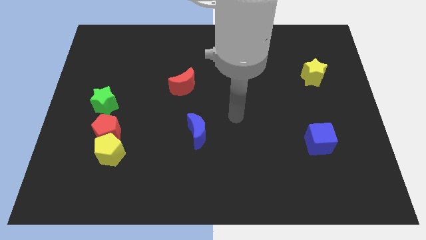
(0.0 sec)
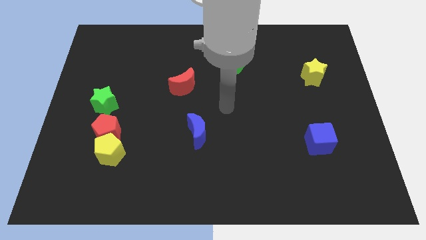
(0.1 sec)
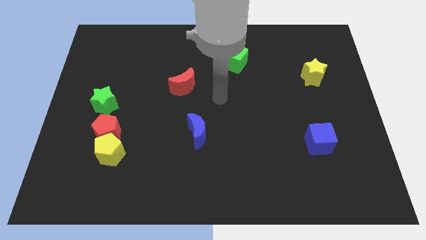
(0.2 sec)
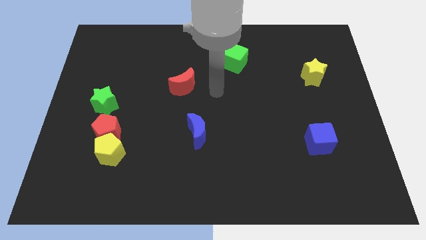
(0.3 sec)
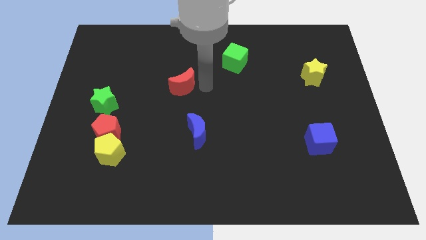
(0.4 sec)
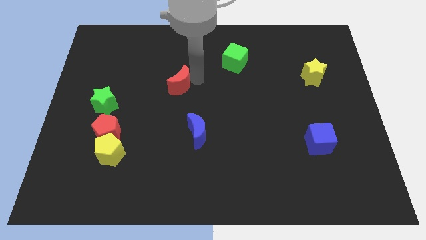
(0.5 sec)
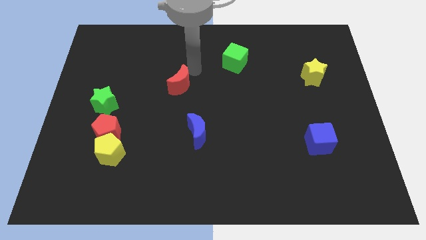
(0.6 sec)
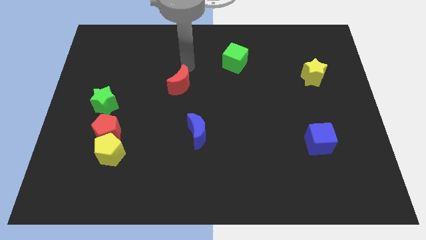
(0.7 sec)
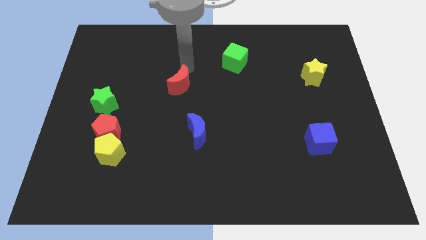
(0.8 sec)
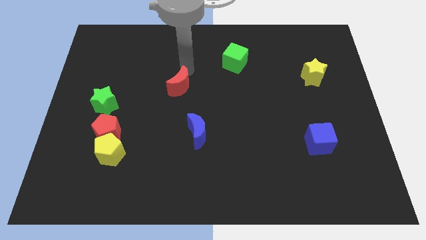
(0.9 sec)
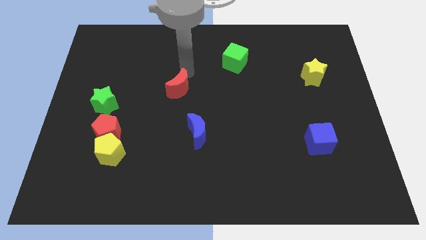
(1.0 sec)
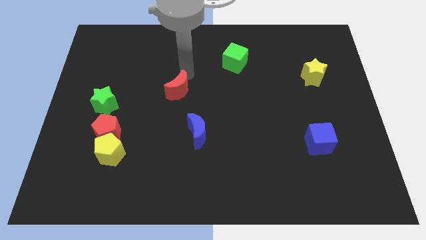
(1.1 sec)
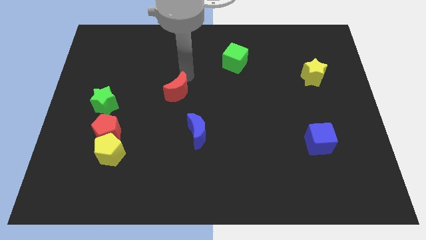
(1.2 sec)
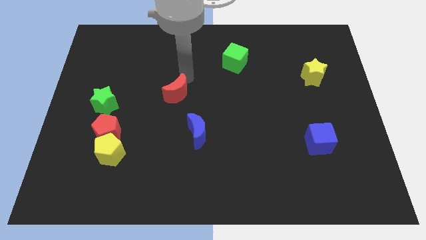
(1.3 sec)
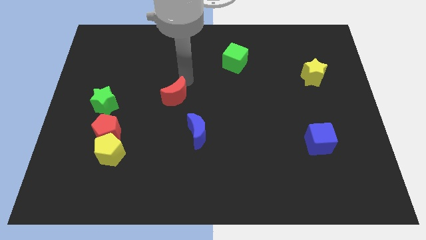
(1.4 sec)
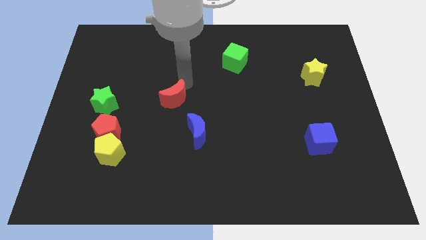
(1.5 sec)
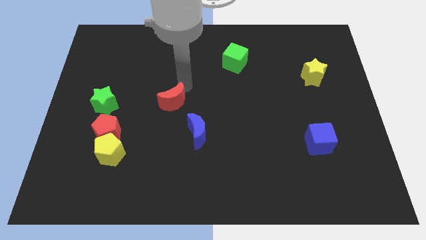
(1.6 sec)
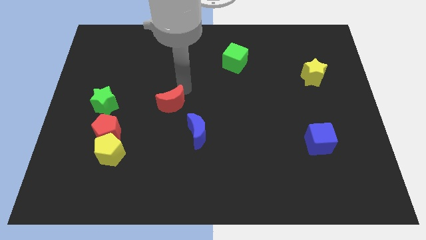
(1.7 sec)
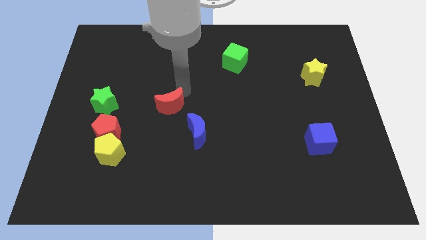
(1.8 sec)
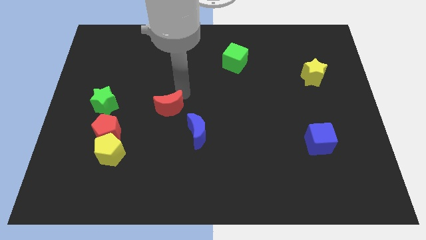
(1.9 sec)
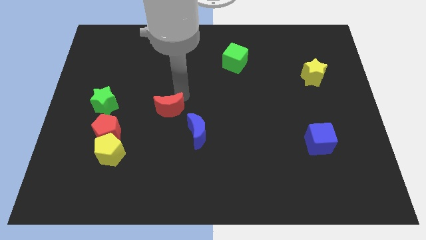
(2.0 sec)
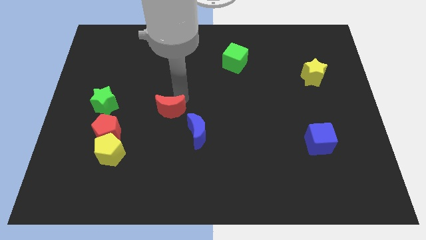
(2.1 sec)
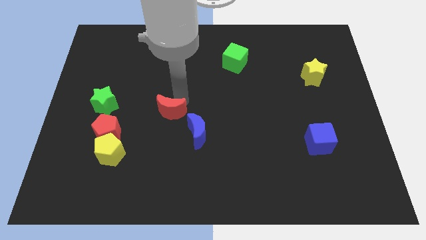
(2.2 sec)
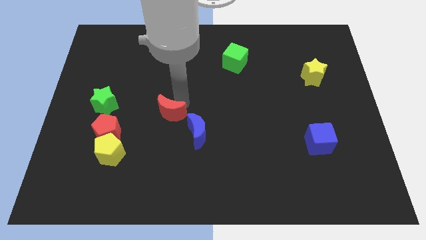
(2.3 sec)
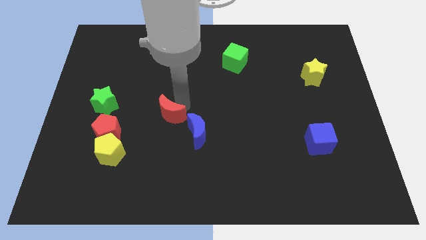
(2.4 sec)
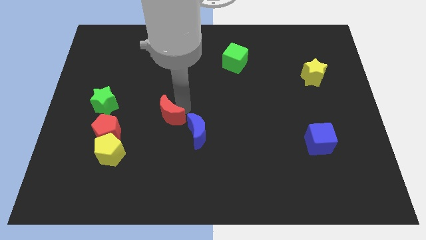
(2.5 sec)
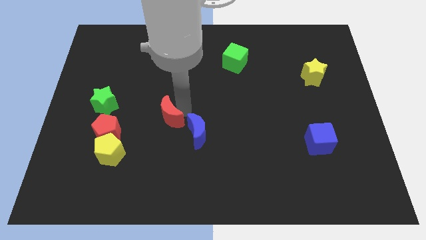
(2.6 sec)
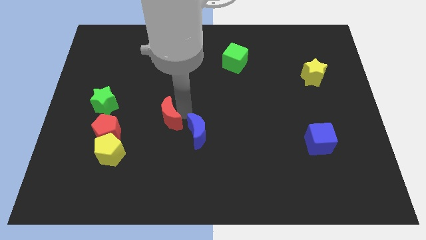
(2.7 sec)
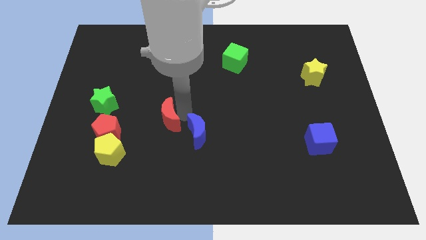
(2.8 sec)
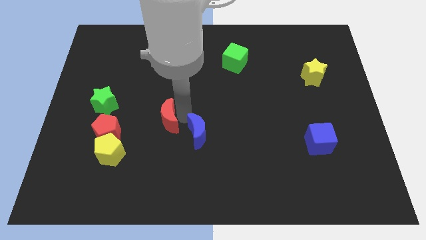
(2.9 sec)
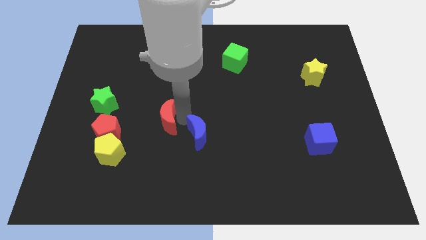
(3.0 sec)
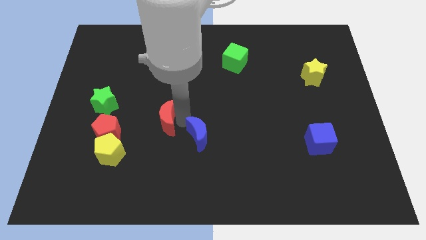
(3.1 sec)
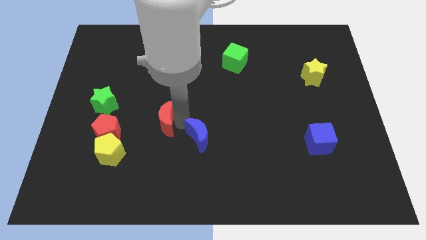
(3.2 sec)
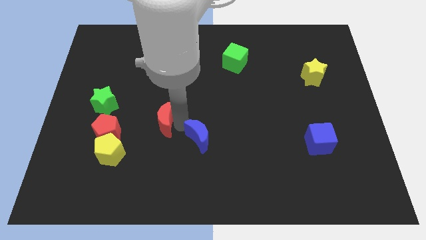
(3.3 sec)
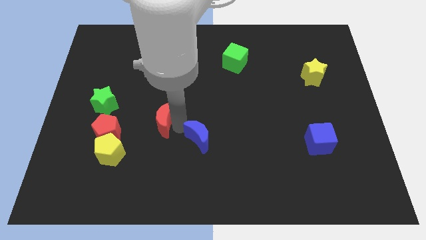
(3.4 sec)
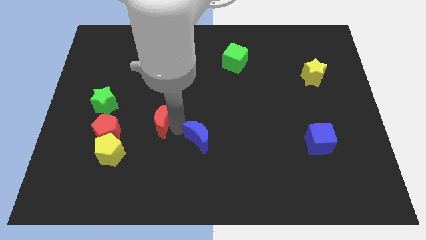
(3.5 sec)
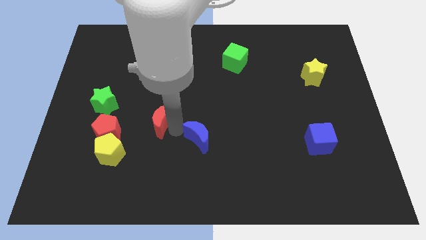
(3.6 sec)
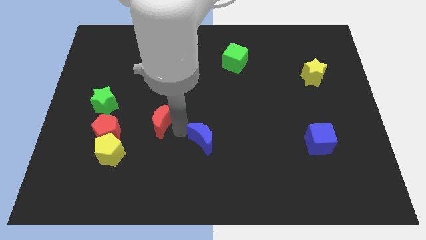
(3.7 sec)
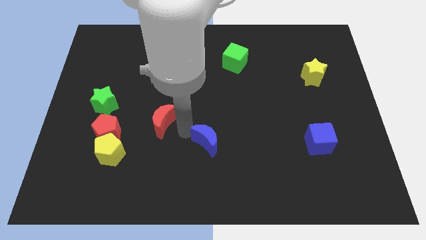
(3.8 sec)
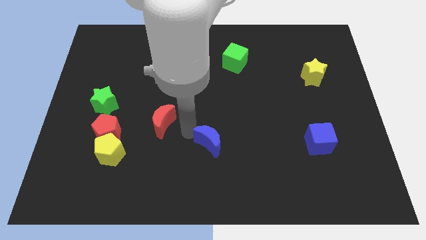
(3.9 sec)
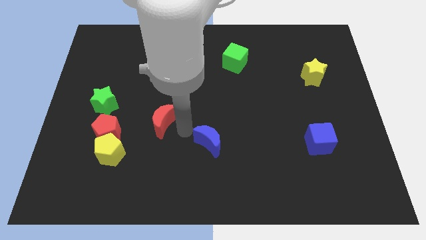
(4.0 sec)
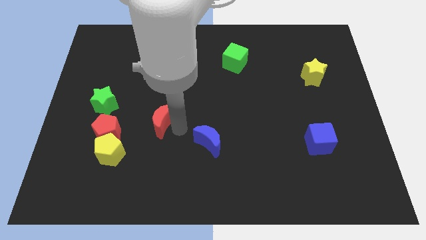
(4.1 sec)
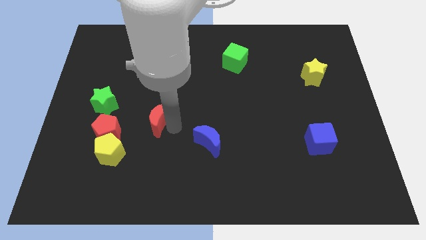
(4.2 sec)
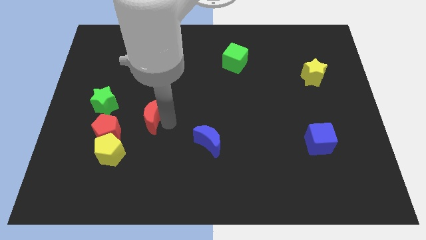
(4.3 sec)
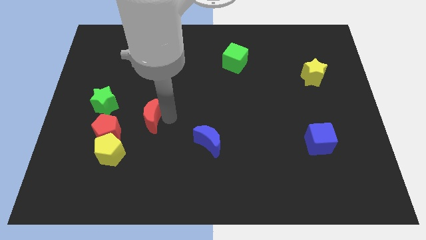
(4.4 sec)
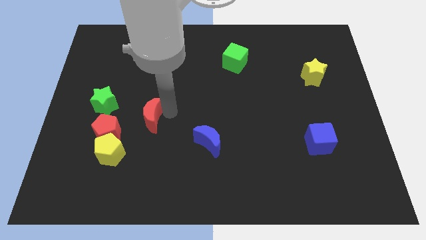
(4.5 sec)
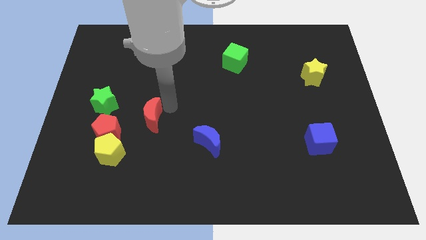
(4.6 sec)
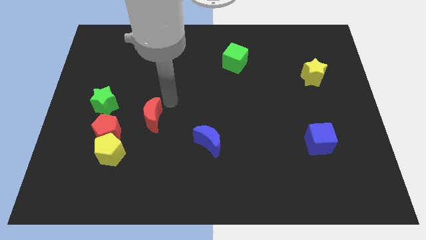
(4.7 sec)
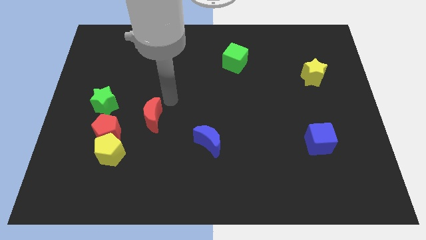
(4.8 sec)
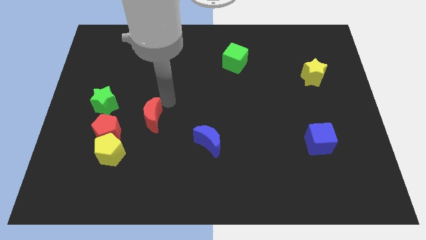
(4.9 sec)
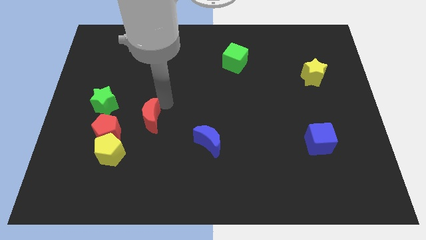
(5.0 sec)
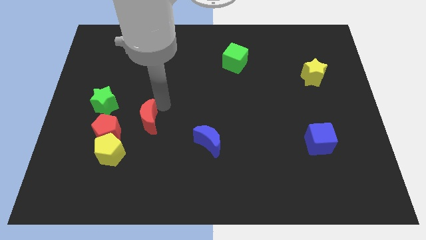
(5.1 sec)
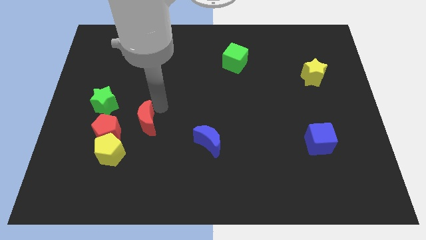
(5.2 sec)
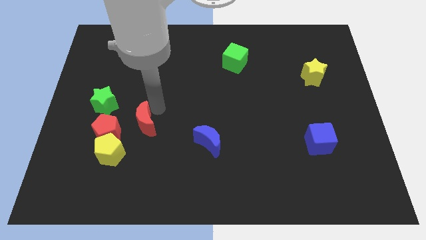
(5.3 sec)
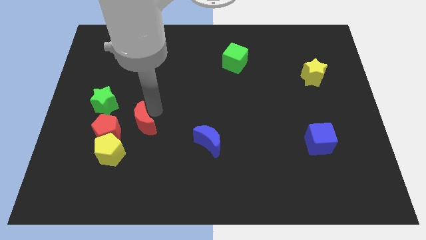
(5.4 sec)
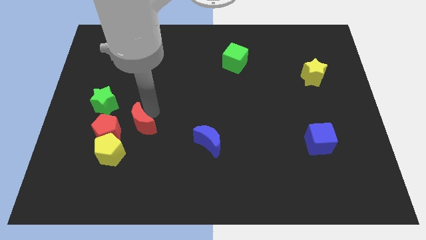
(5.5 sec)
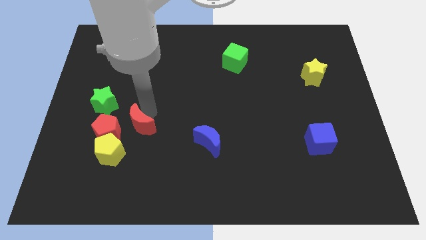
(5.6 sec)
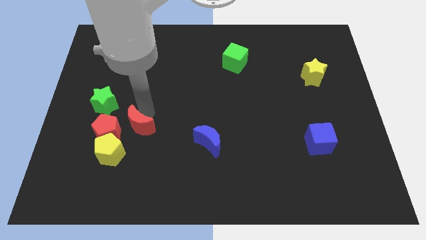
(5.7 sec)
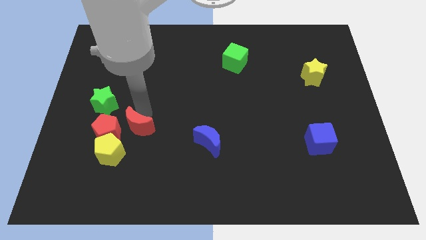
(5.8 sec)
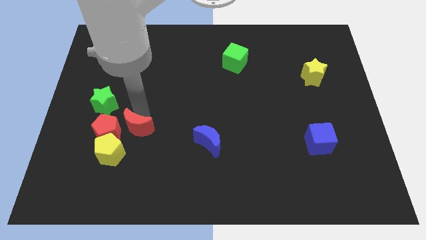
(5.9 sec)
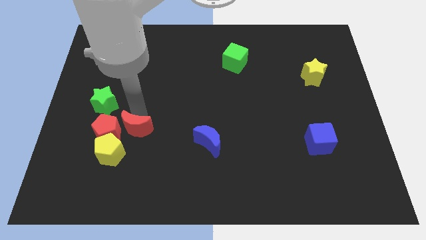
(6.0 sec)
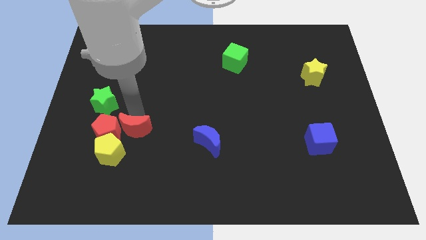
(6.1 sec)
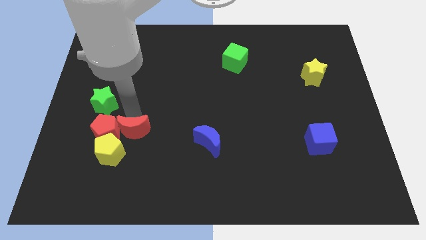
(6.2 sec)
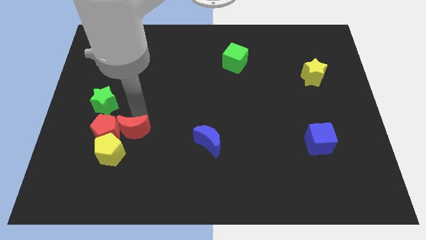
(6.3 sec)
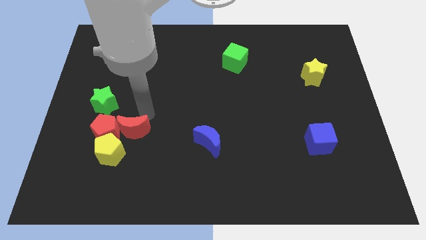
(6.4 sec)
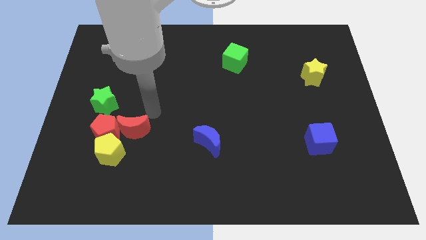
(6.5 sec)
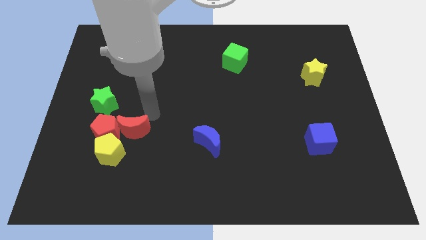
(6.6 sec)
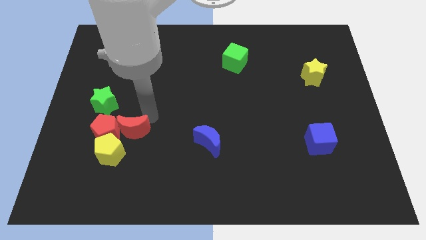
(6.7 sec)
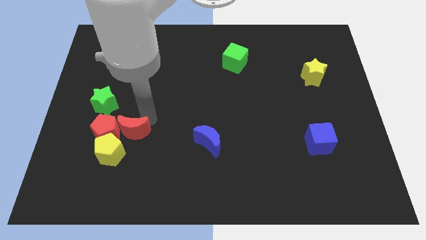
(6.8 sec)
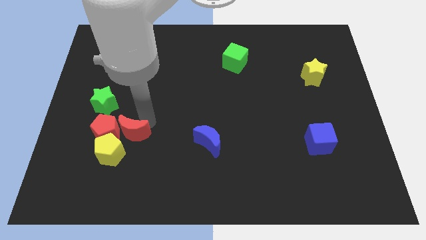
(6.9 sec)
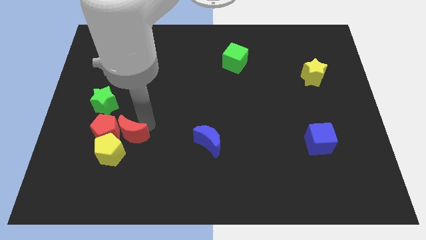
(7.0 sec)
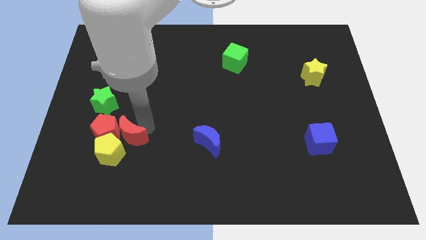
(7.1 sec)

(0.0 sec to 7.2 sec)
move the red moon to the yellow pentagon

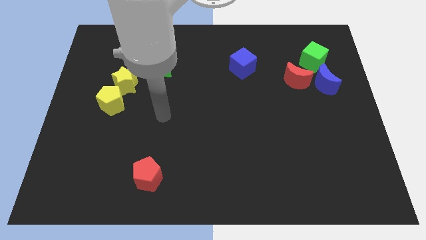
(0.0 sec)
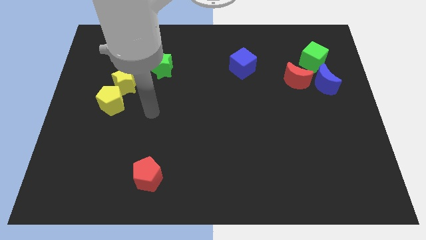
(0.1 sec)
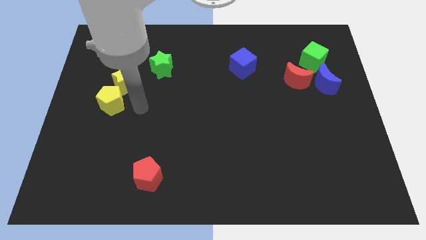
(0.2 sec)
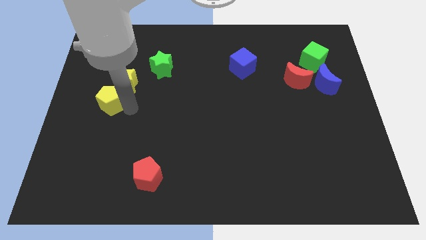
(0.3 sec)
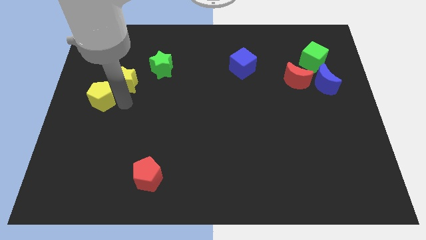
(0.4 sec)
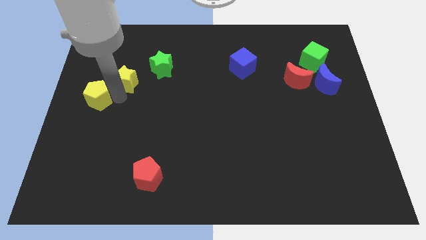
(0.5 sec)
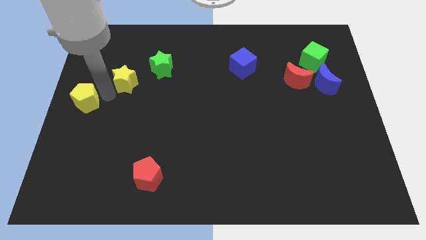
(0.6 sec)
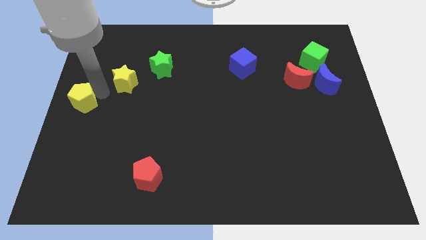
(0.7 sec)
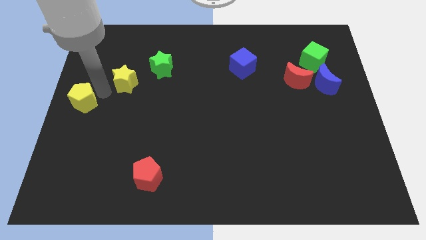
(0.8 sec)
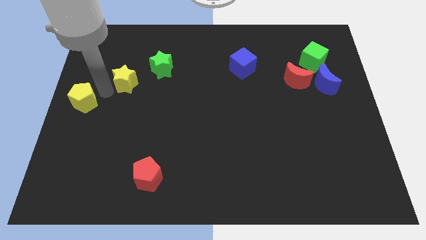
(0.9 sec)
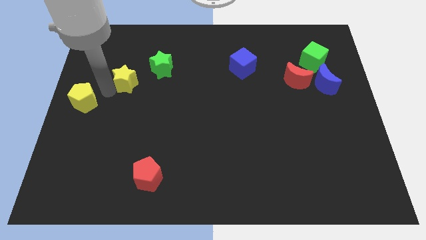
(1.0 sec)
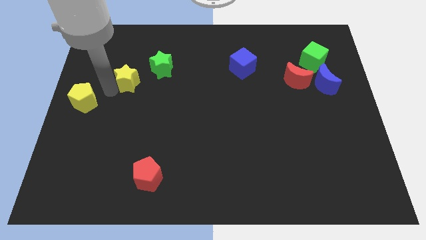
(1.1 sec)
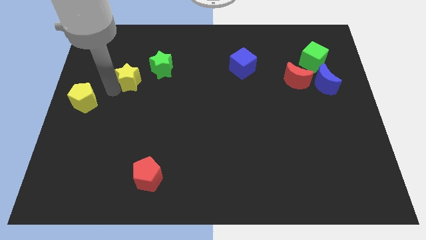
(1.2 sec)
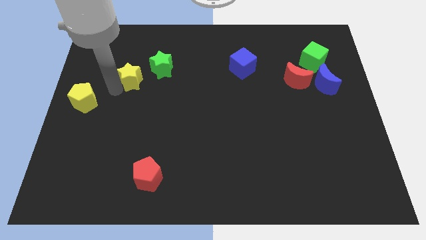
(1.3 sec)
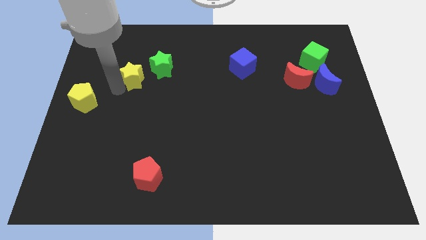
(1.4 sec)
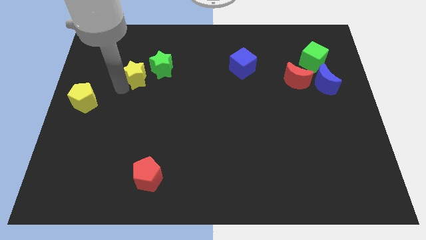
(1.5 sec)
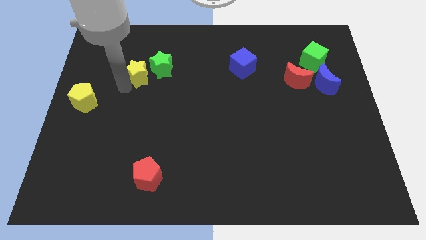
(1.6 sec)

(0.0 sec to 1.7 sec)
push the yellow star to the green star
